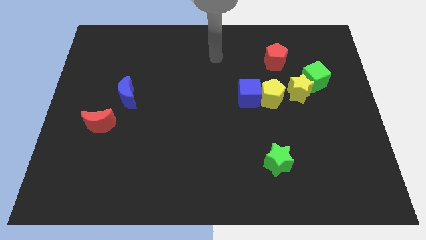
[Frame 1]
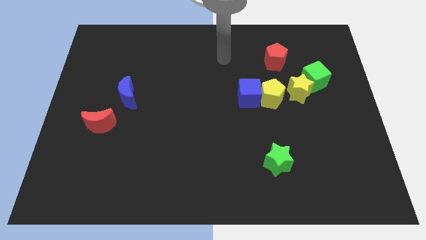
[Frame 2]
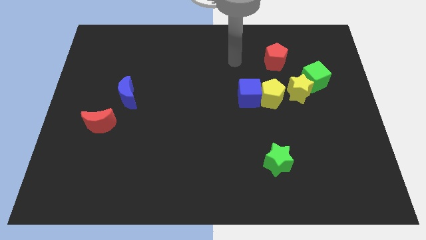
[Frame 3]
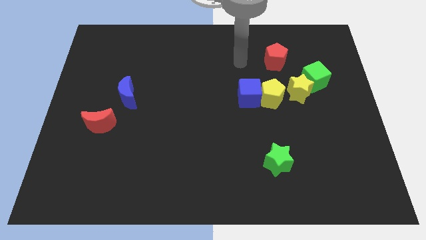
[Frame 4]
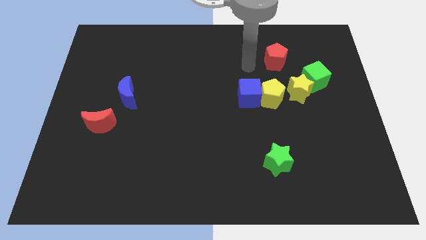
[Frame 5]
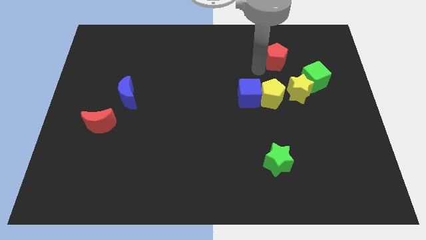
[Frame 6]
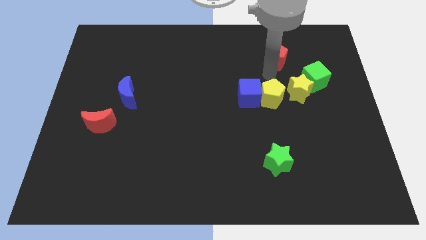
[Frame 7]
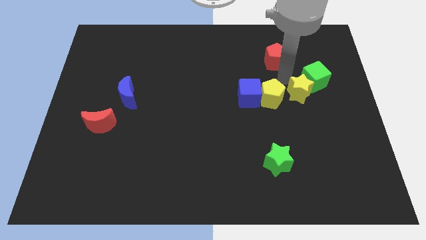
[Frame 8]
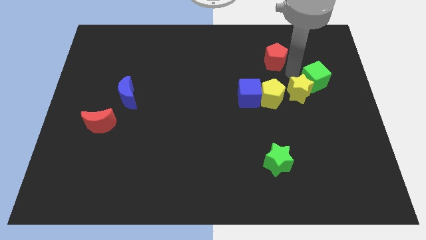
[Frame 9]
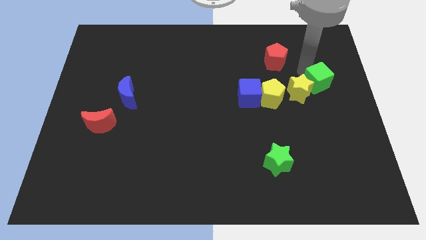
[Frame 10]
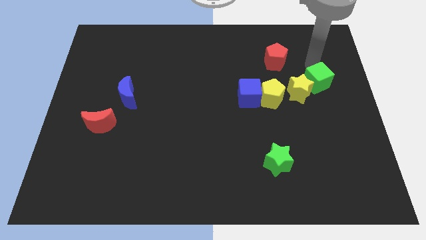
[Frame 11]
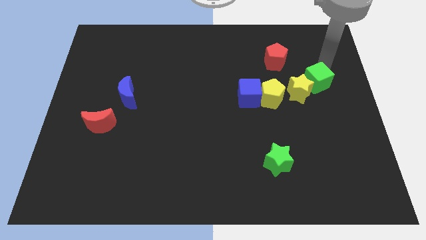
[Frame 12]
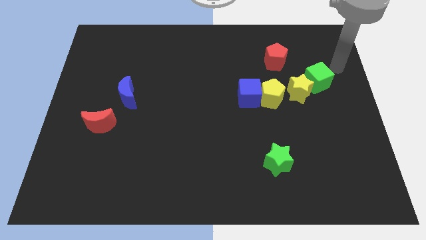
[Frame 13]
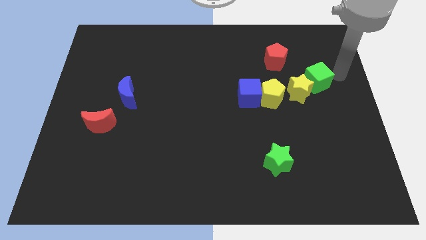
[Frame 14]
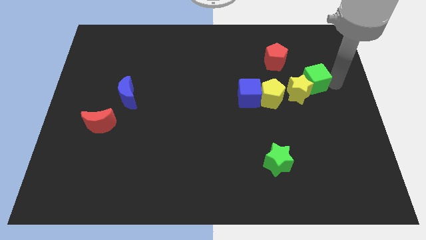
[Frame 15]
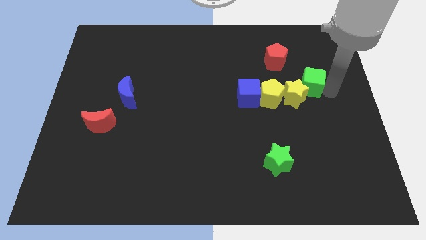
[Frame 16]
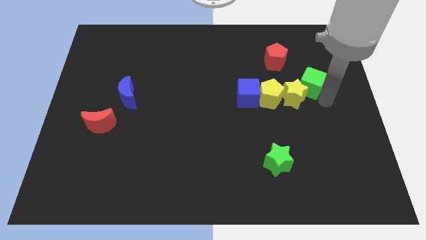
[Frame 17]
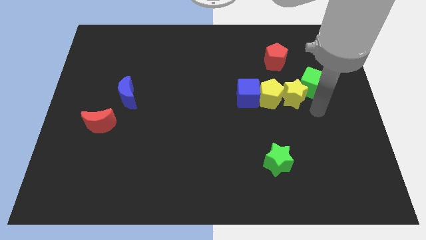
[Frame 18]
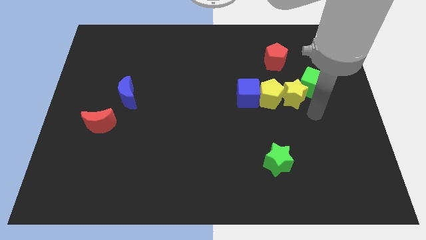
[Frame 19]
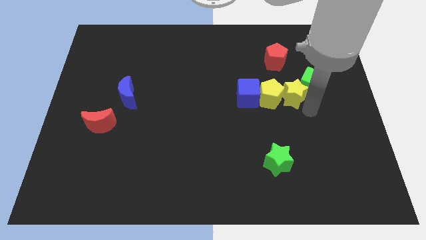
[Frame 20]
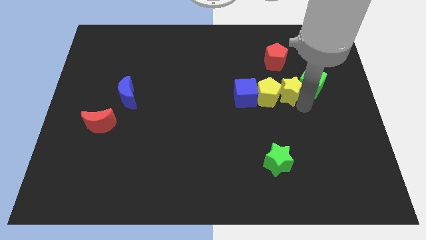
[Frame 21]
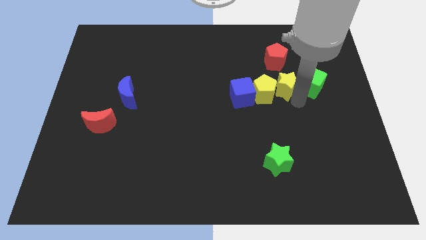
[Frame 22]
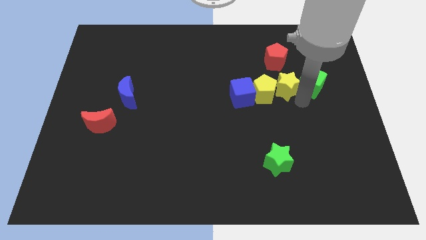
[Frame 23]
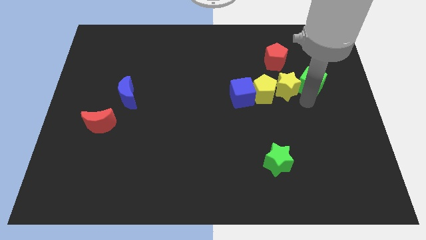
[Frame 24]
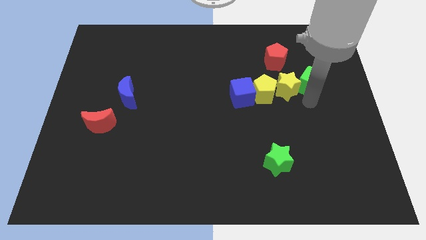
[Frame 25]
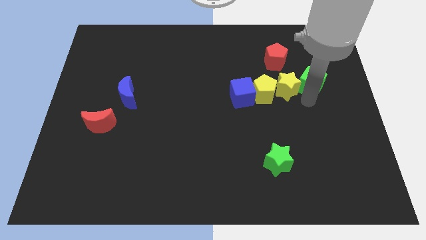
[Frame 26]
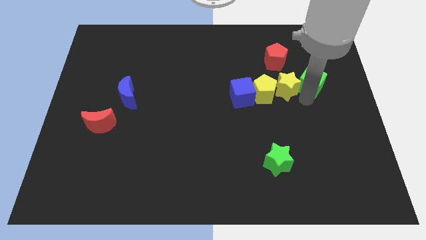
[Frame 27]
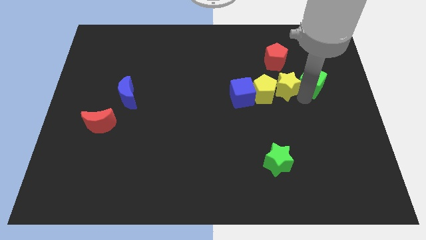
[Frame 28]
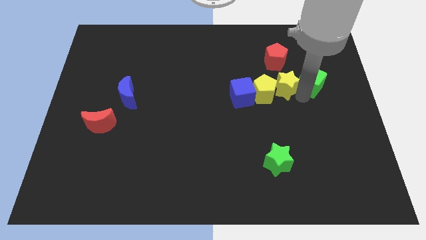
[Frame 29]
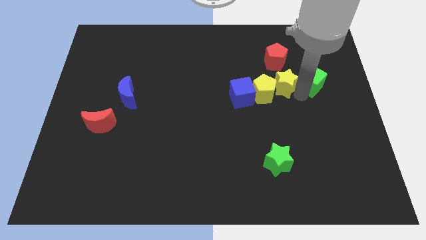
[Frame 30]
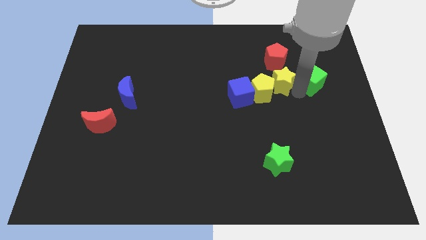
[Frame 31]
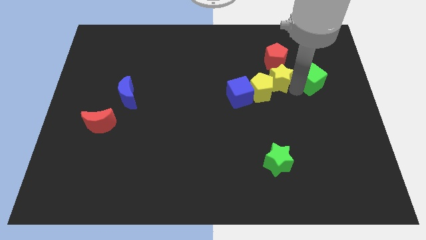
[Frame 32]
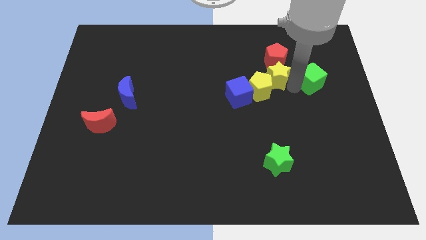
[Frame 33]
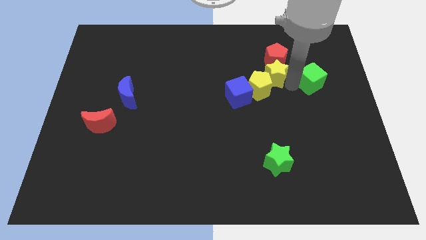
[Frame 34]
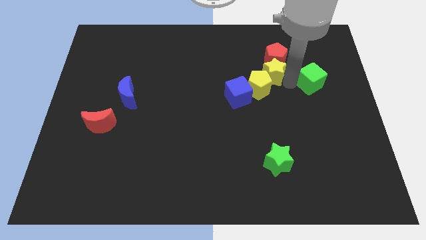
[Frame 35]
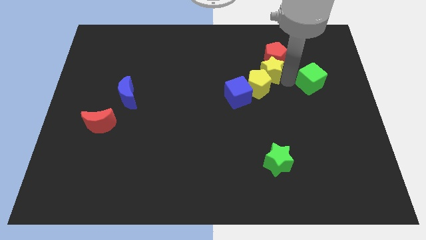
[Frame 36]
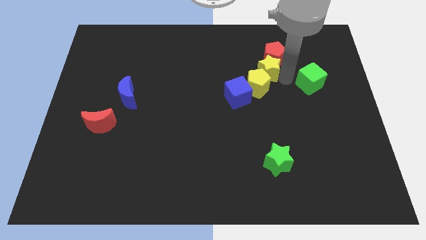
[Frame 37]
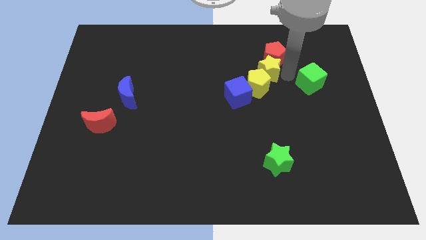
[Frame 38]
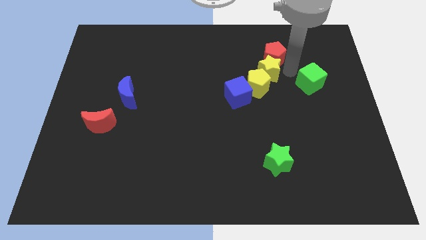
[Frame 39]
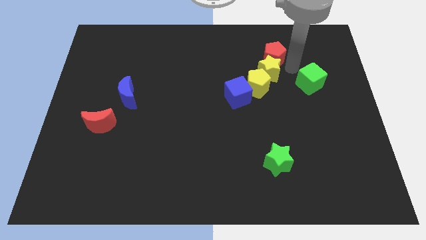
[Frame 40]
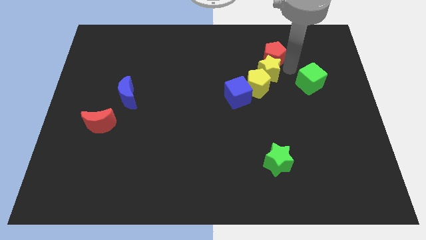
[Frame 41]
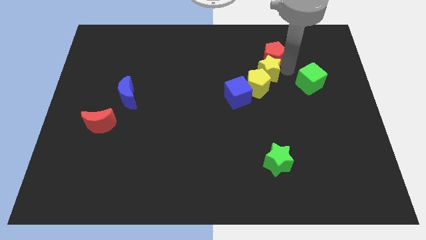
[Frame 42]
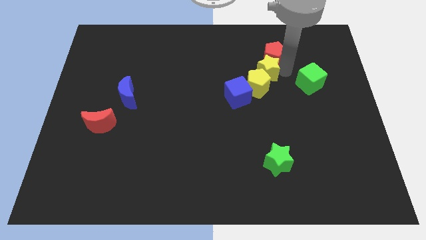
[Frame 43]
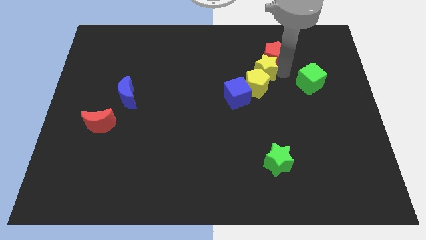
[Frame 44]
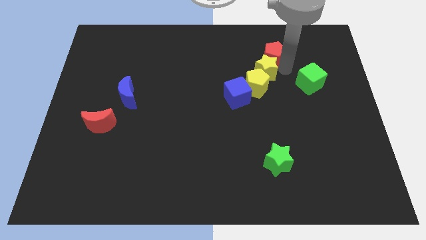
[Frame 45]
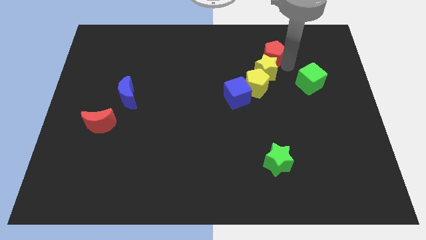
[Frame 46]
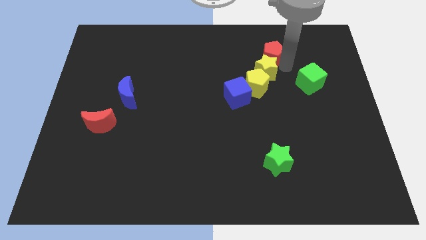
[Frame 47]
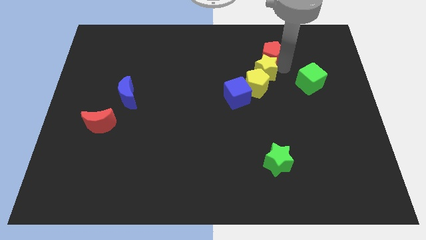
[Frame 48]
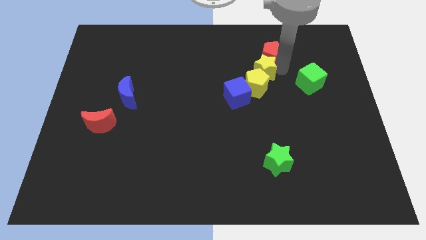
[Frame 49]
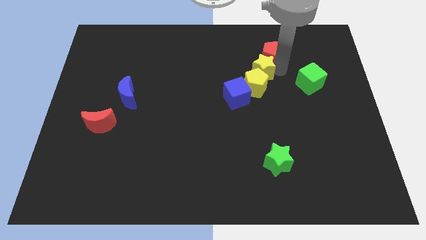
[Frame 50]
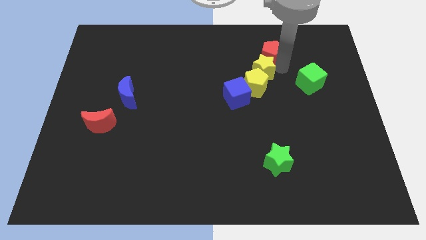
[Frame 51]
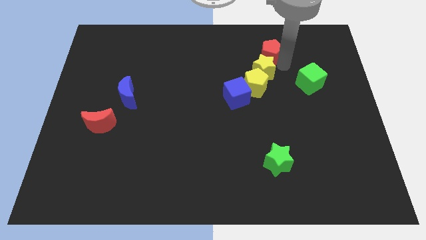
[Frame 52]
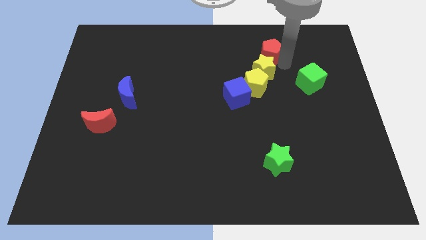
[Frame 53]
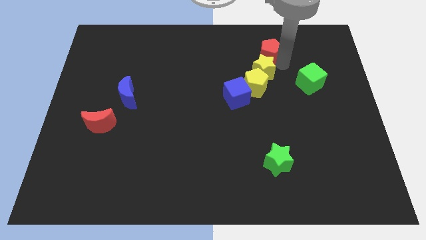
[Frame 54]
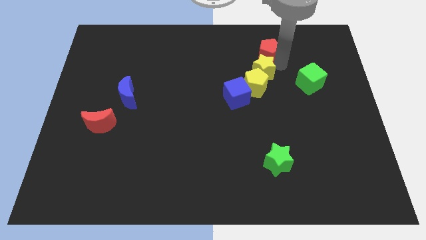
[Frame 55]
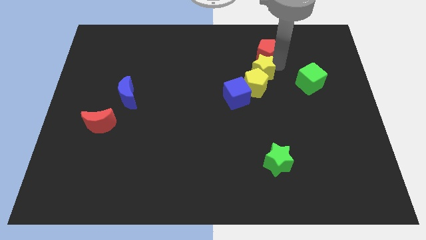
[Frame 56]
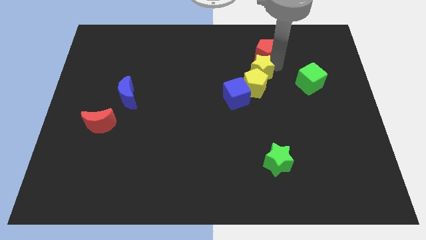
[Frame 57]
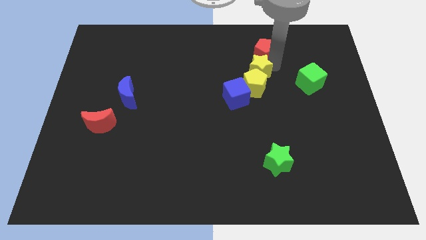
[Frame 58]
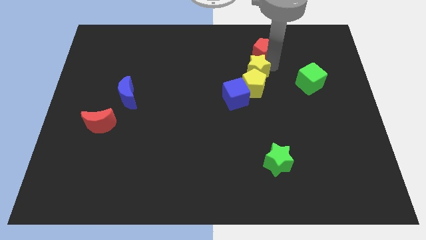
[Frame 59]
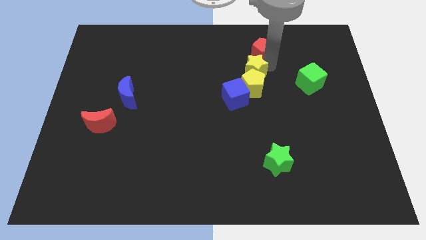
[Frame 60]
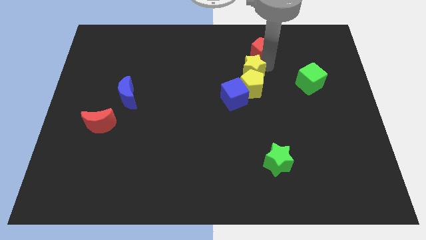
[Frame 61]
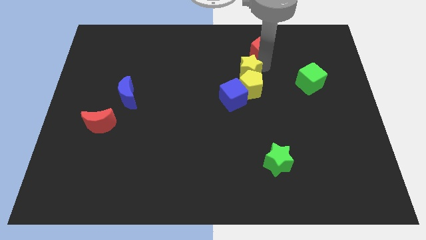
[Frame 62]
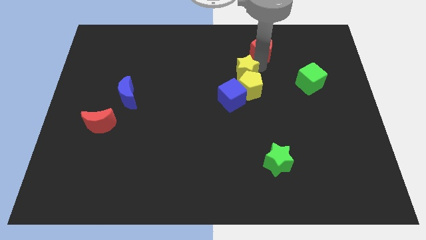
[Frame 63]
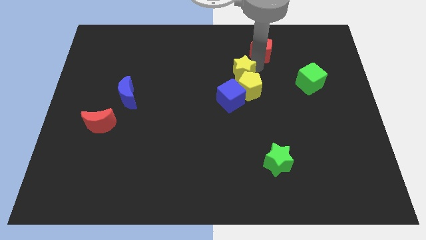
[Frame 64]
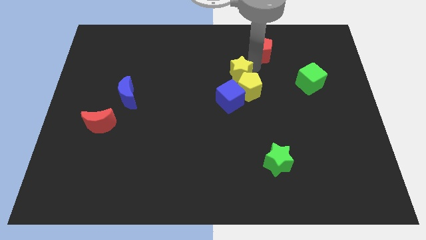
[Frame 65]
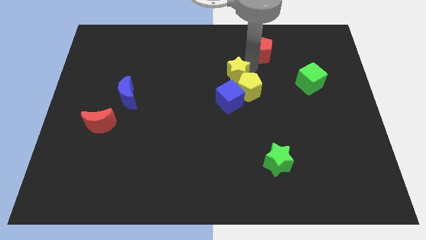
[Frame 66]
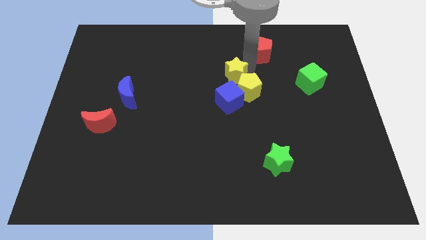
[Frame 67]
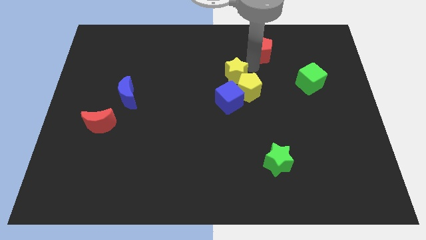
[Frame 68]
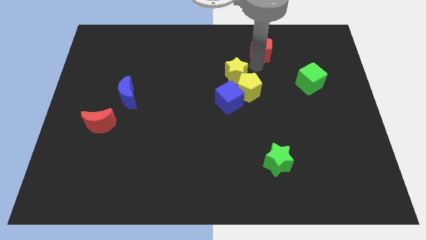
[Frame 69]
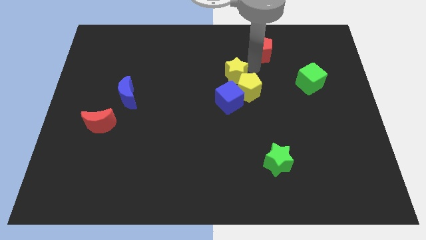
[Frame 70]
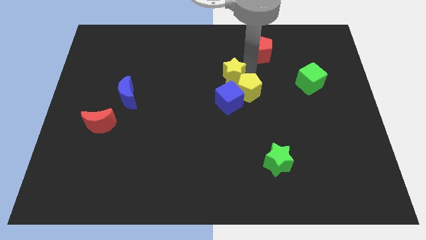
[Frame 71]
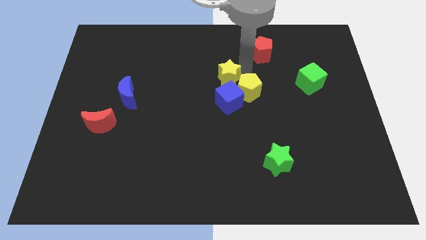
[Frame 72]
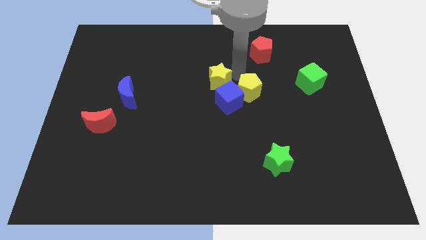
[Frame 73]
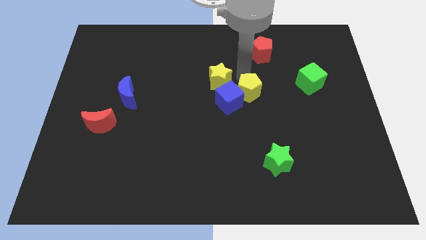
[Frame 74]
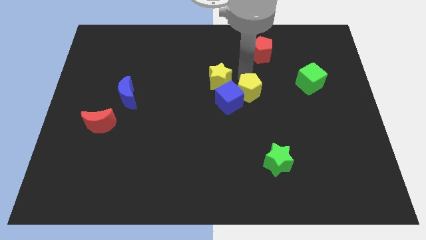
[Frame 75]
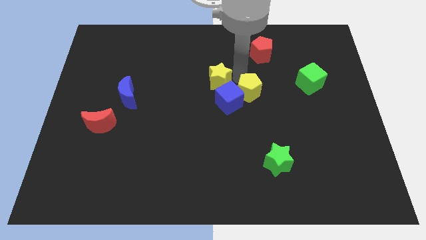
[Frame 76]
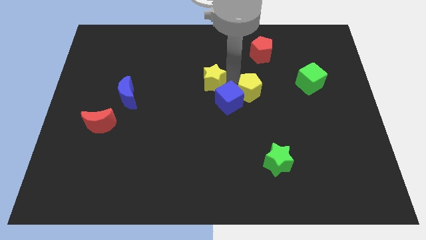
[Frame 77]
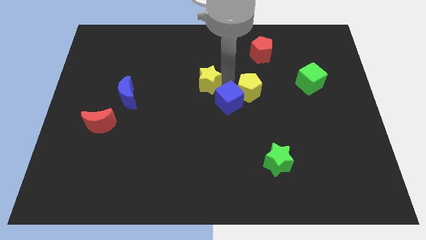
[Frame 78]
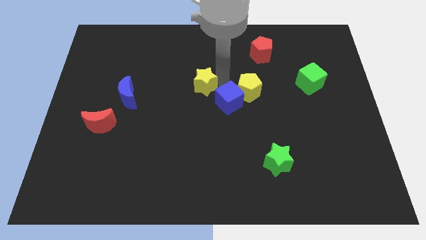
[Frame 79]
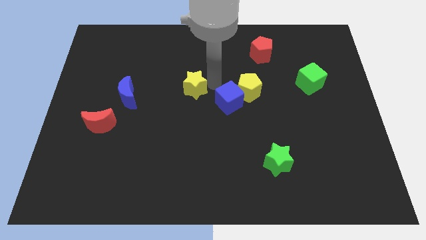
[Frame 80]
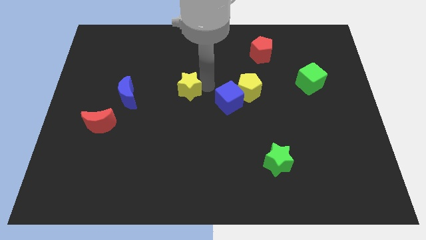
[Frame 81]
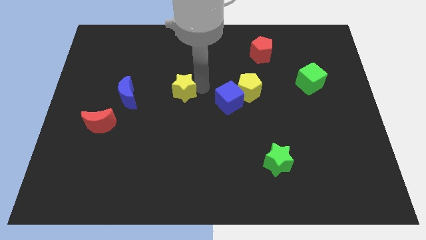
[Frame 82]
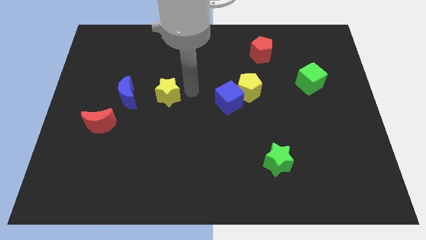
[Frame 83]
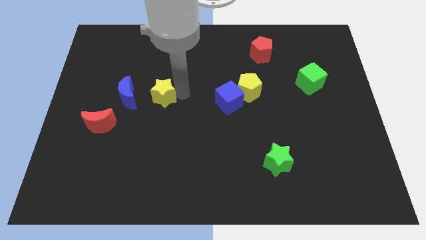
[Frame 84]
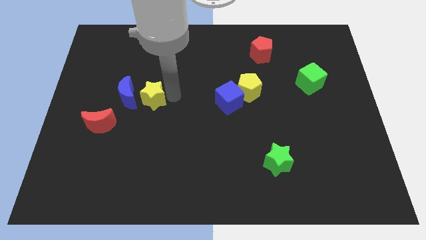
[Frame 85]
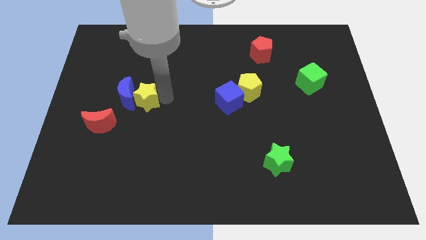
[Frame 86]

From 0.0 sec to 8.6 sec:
push the yellow star to the blue moon
